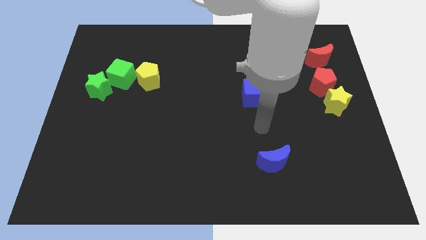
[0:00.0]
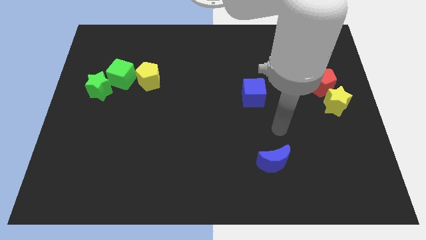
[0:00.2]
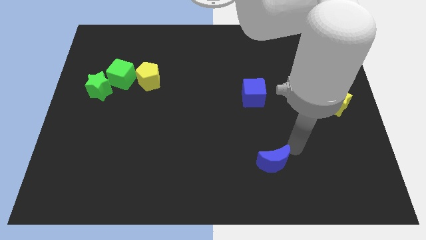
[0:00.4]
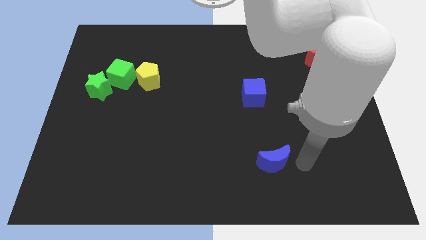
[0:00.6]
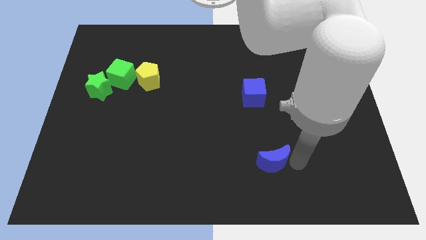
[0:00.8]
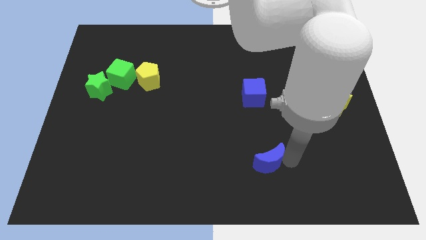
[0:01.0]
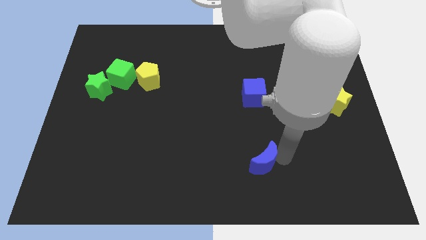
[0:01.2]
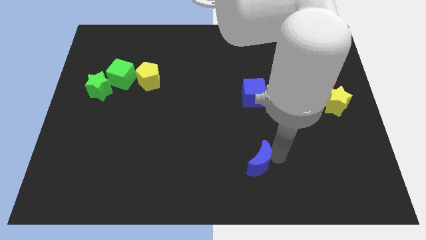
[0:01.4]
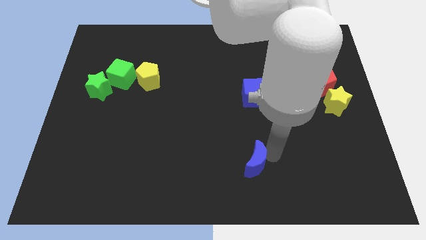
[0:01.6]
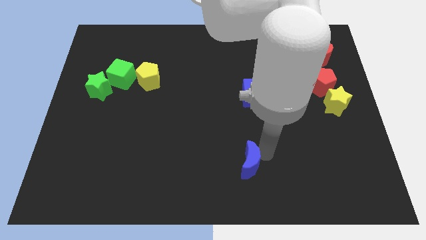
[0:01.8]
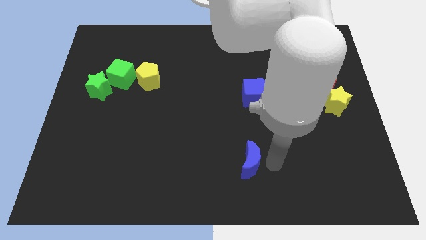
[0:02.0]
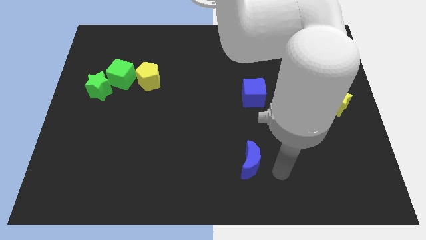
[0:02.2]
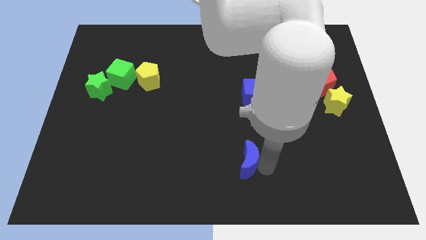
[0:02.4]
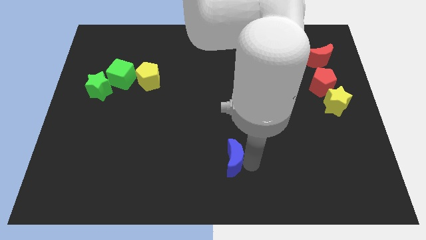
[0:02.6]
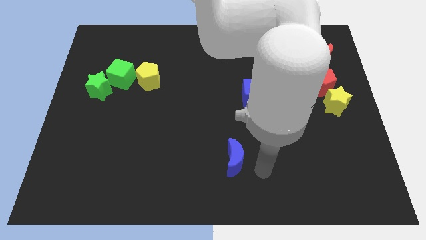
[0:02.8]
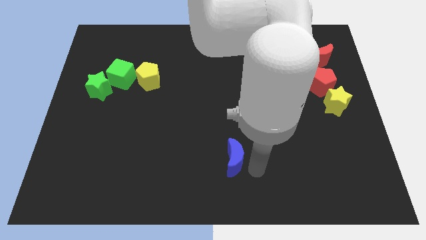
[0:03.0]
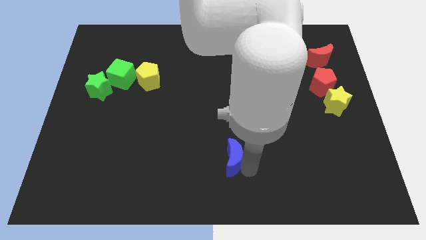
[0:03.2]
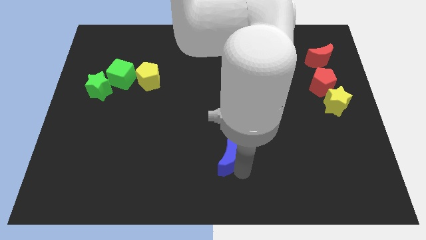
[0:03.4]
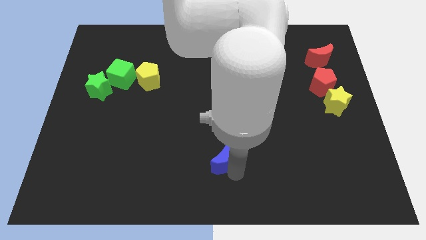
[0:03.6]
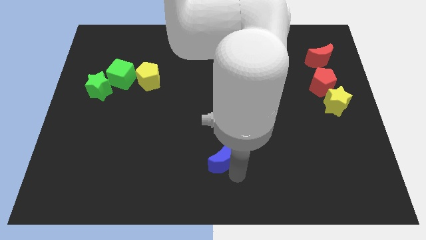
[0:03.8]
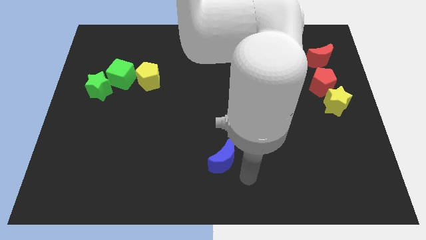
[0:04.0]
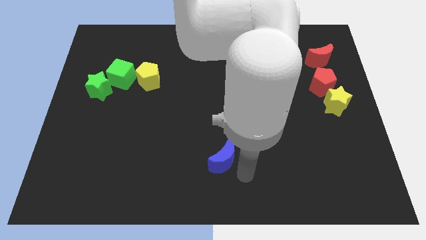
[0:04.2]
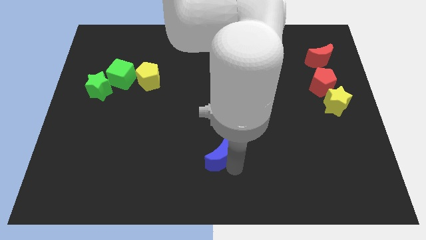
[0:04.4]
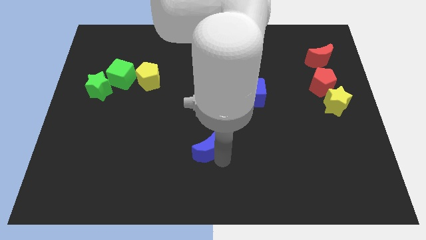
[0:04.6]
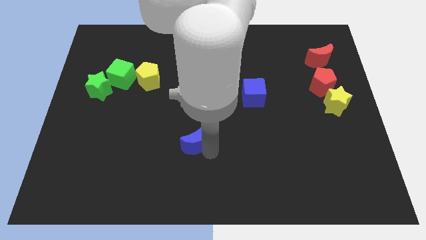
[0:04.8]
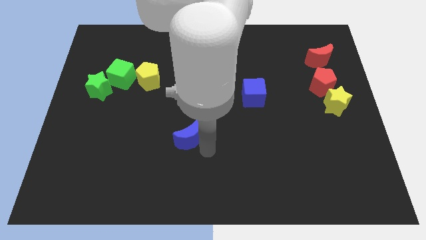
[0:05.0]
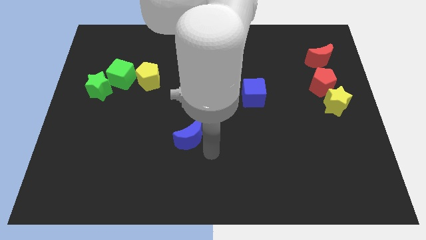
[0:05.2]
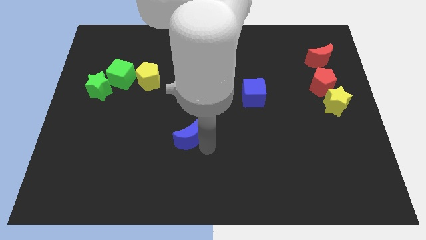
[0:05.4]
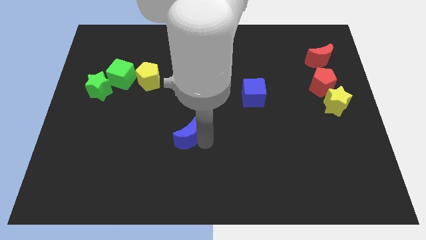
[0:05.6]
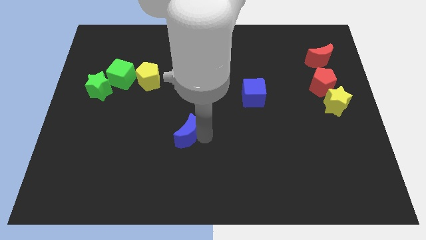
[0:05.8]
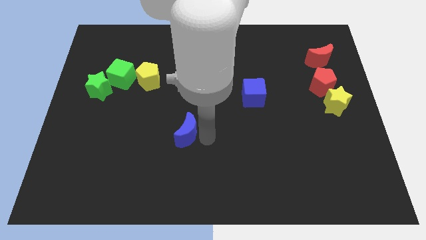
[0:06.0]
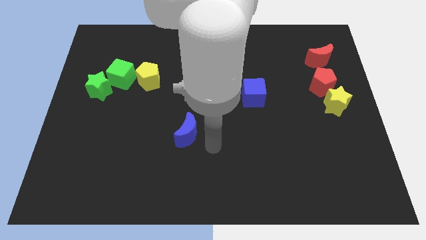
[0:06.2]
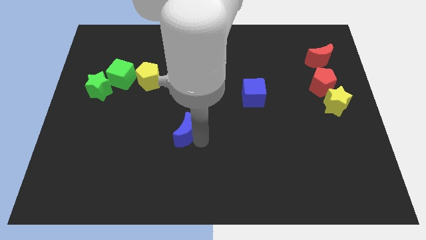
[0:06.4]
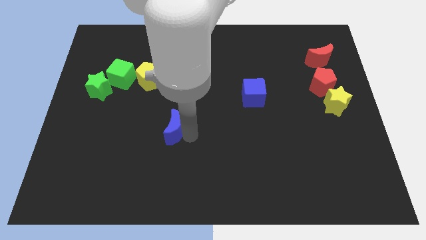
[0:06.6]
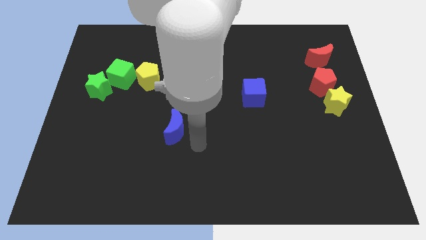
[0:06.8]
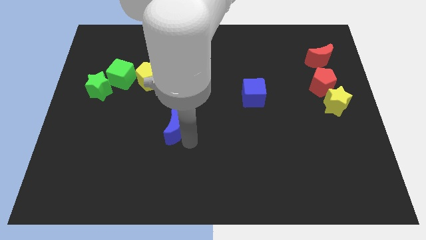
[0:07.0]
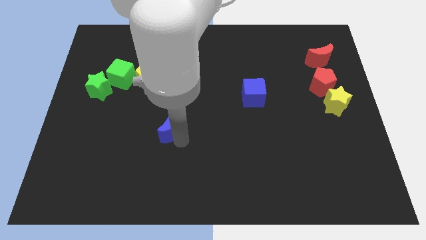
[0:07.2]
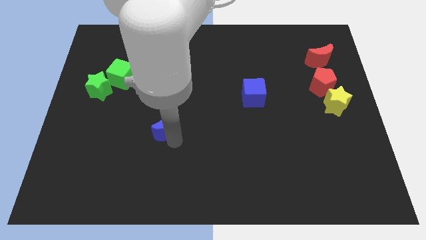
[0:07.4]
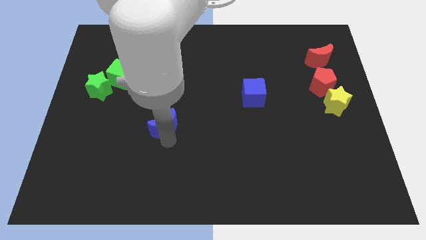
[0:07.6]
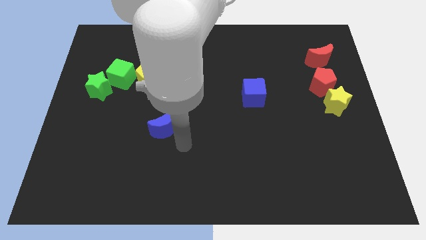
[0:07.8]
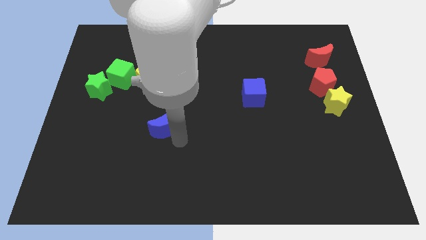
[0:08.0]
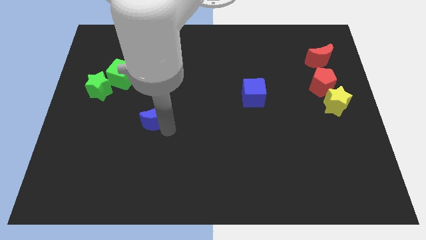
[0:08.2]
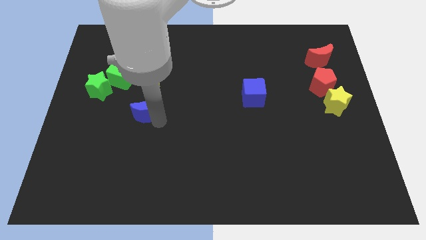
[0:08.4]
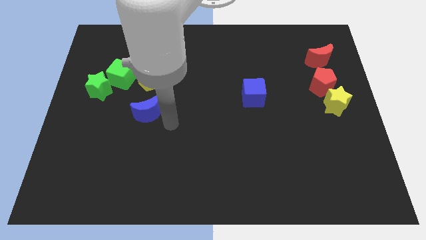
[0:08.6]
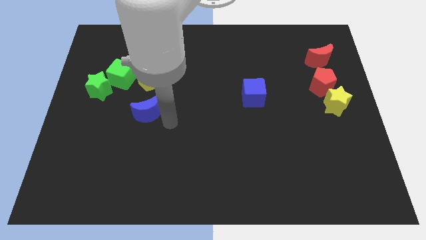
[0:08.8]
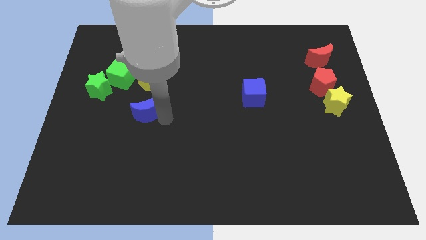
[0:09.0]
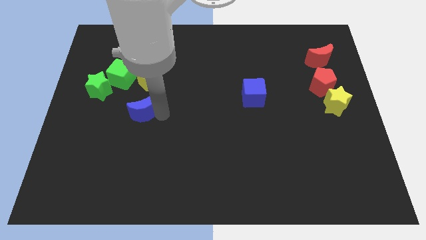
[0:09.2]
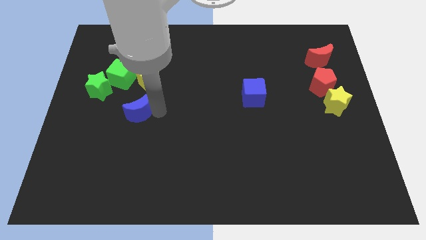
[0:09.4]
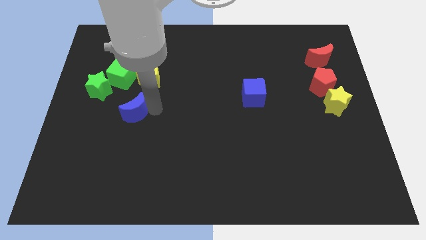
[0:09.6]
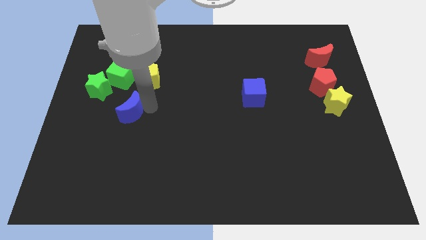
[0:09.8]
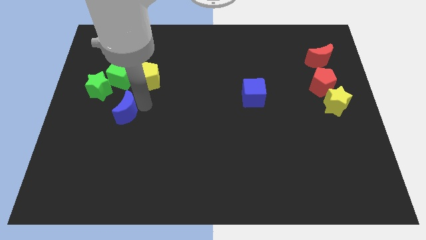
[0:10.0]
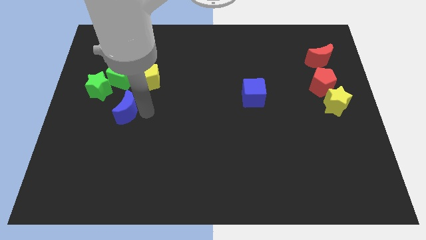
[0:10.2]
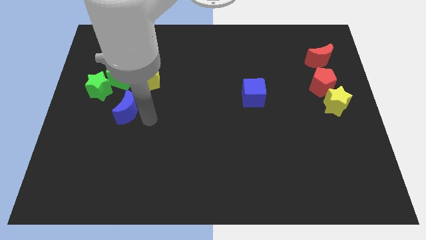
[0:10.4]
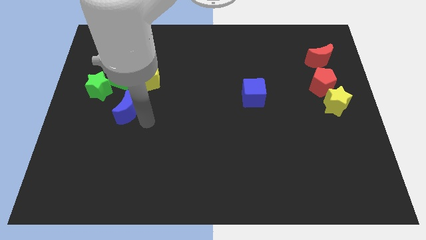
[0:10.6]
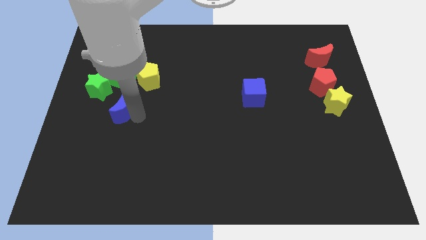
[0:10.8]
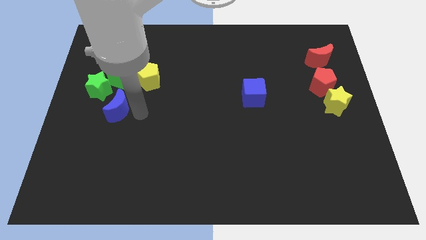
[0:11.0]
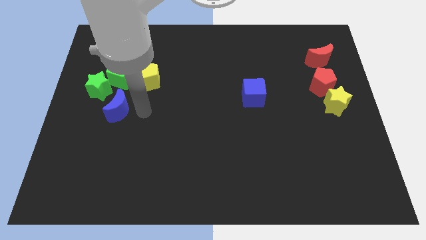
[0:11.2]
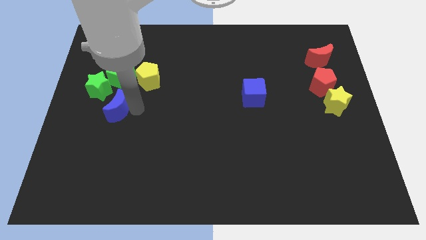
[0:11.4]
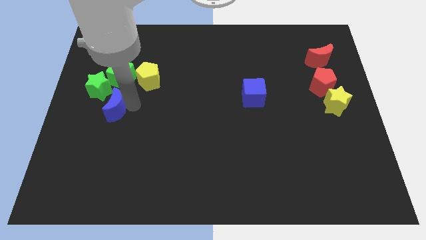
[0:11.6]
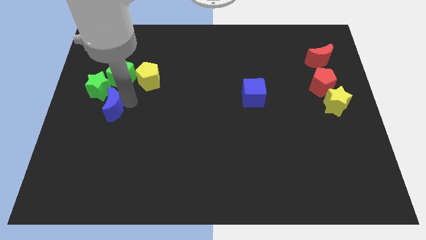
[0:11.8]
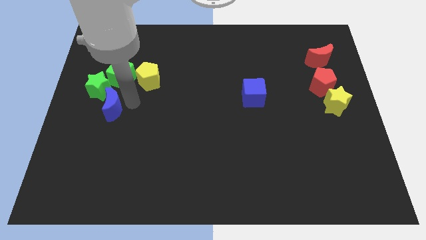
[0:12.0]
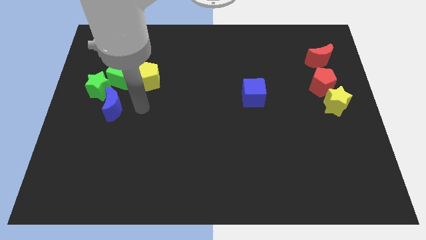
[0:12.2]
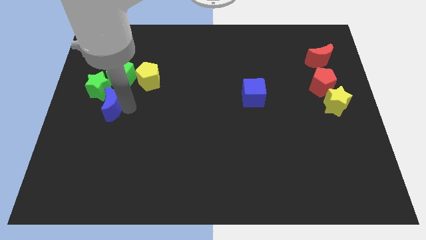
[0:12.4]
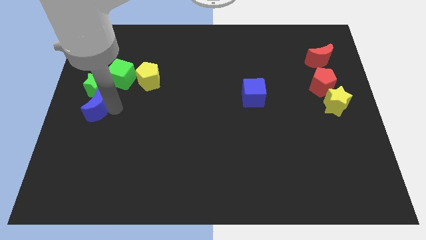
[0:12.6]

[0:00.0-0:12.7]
slide the blue moon to the bottom left of the green cube
